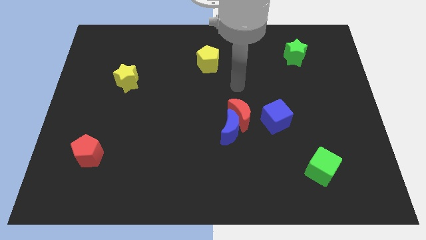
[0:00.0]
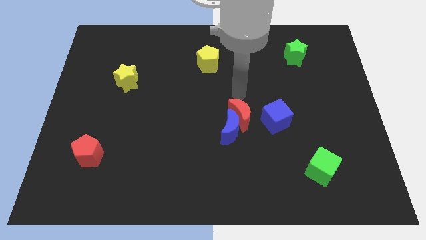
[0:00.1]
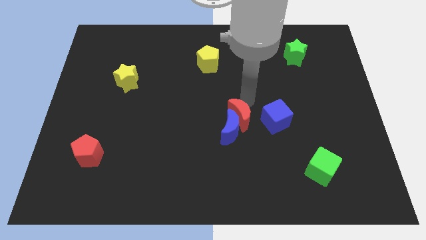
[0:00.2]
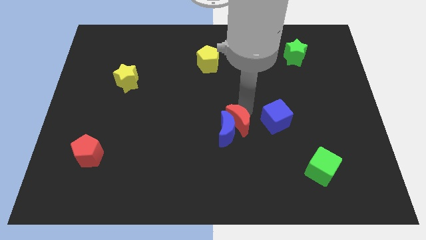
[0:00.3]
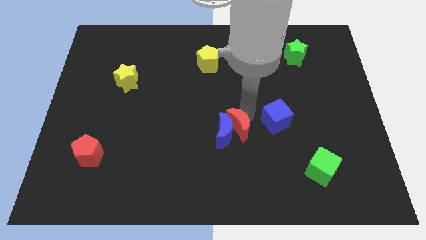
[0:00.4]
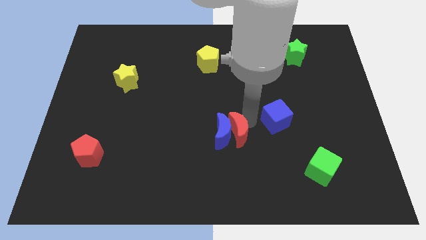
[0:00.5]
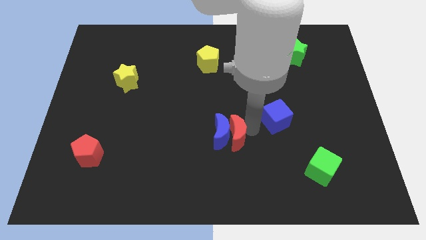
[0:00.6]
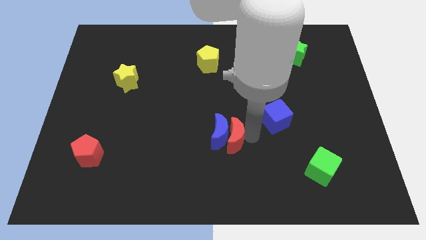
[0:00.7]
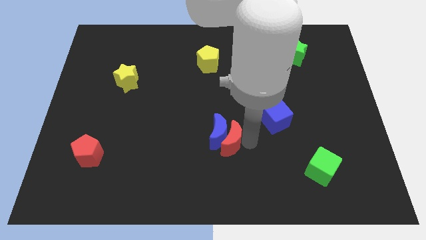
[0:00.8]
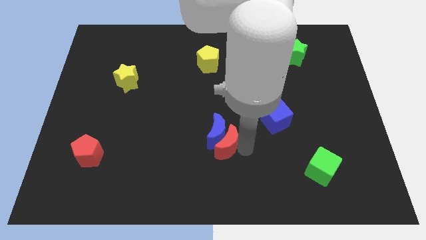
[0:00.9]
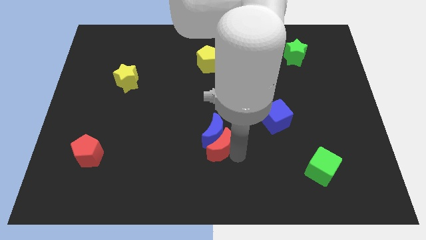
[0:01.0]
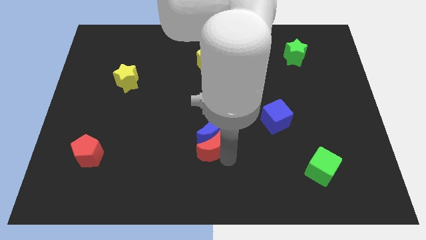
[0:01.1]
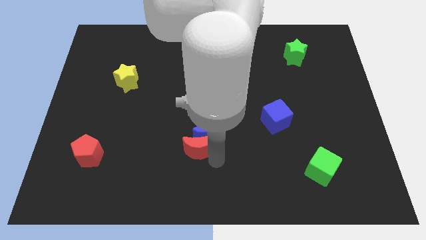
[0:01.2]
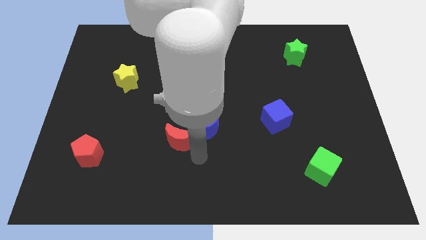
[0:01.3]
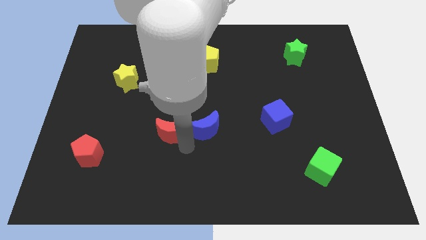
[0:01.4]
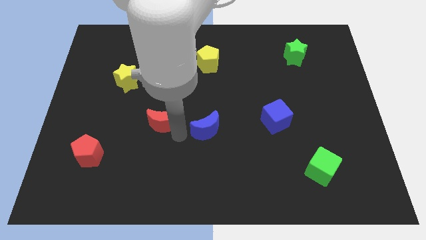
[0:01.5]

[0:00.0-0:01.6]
separate the blue moon from the red moon

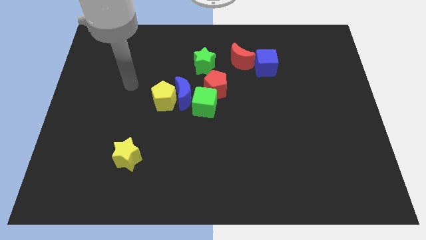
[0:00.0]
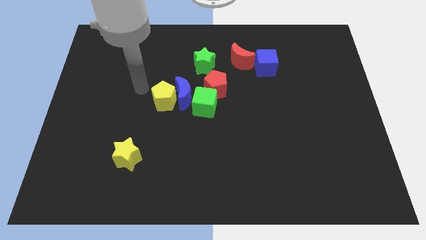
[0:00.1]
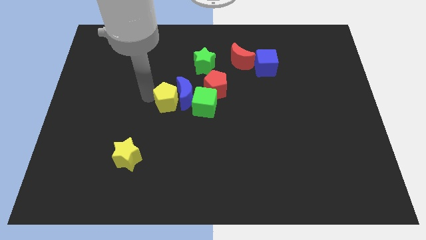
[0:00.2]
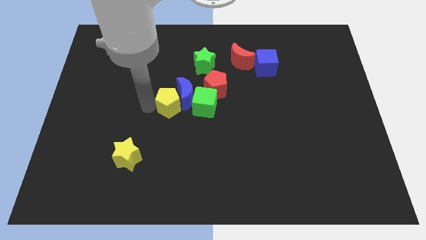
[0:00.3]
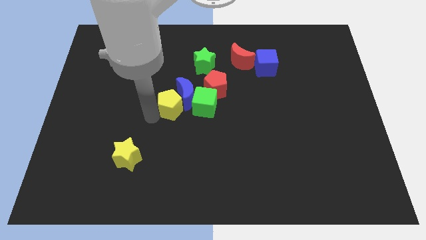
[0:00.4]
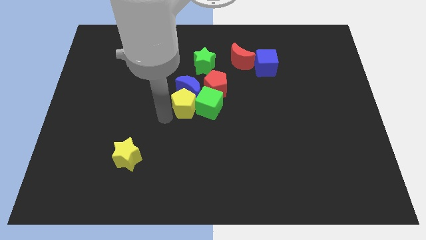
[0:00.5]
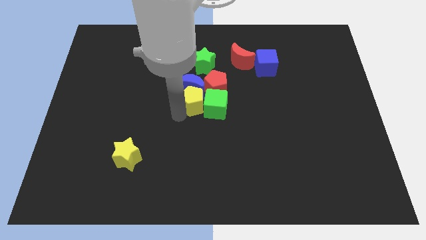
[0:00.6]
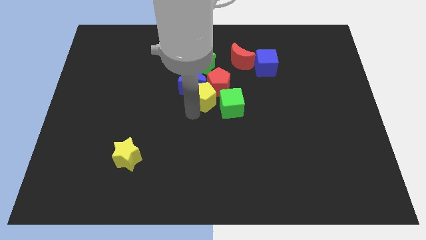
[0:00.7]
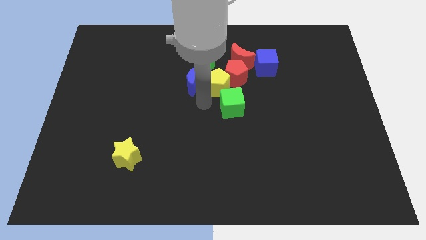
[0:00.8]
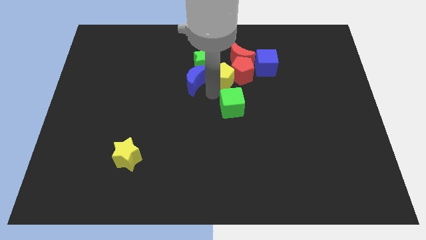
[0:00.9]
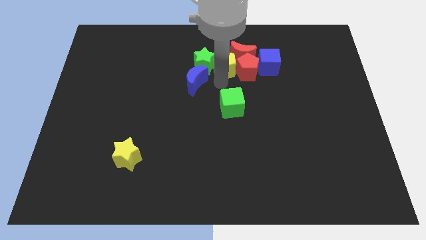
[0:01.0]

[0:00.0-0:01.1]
move the blue moon away from the group

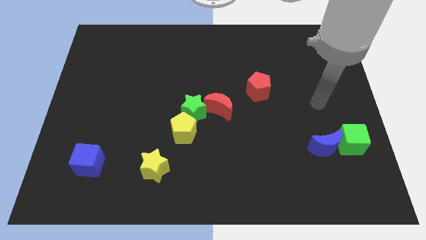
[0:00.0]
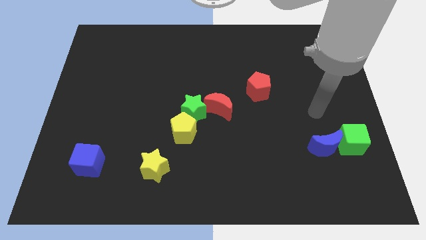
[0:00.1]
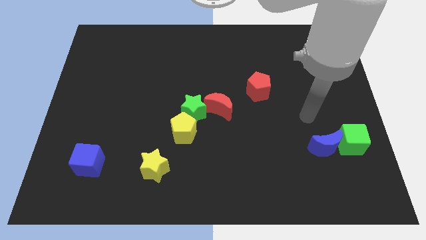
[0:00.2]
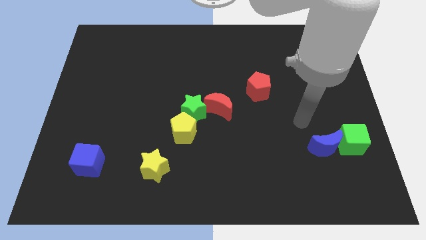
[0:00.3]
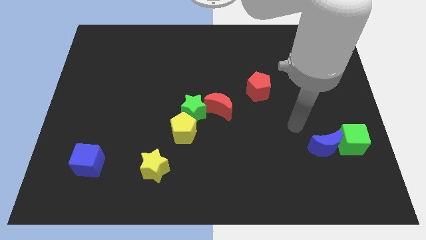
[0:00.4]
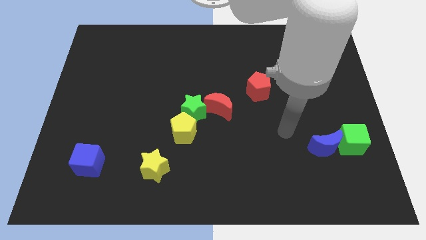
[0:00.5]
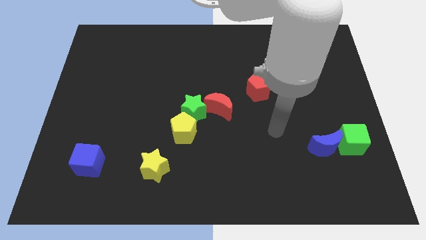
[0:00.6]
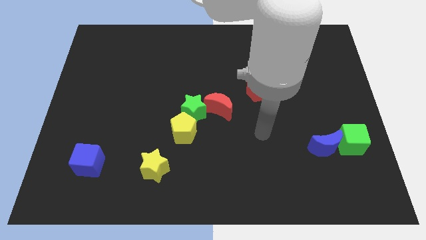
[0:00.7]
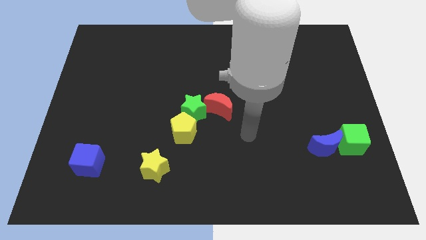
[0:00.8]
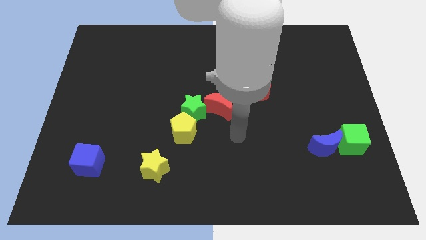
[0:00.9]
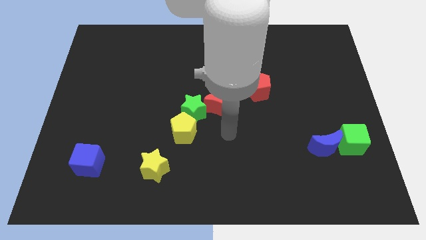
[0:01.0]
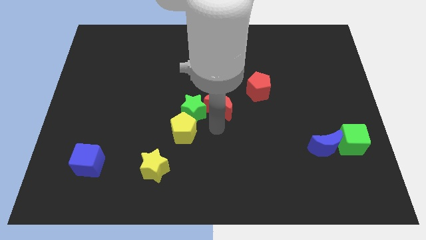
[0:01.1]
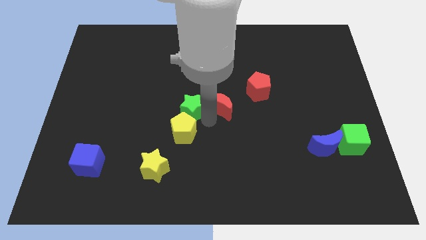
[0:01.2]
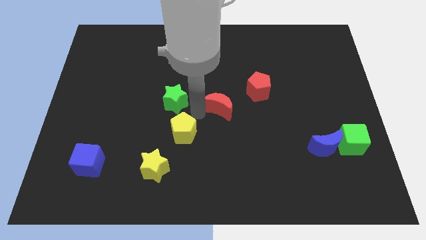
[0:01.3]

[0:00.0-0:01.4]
pull the red moon apart from the green star

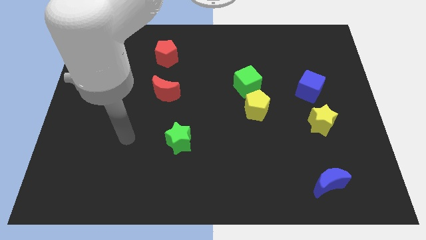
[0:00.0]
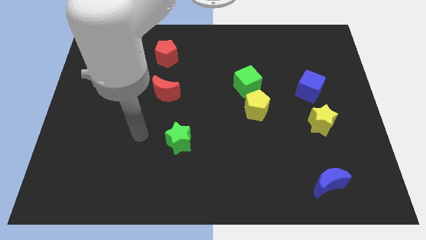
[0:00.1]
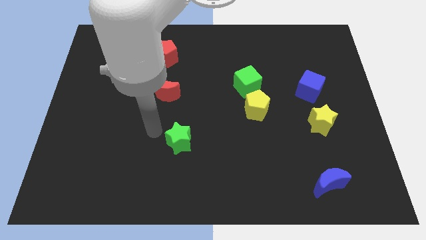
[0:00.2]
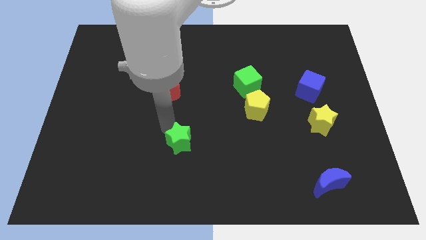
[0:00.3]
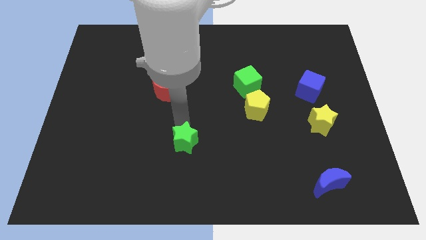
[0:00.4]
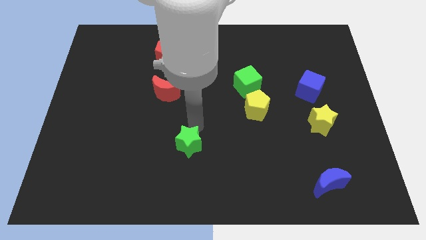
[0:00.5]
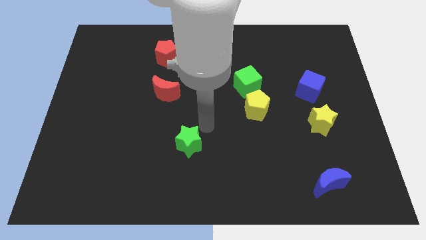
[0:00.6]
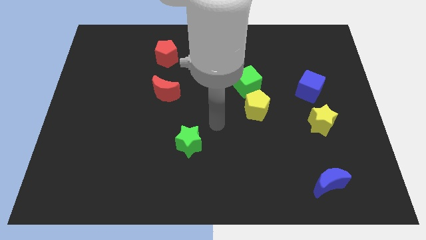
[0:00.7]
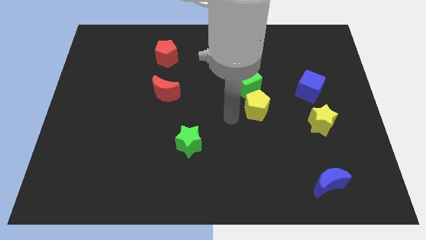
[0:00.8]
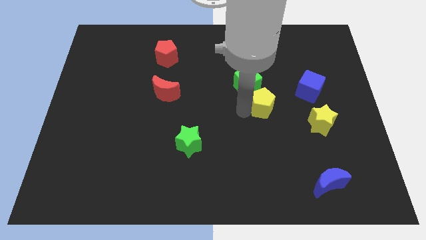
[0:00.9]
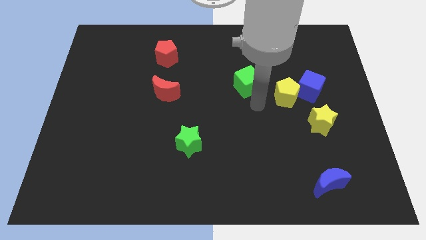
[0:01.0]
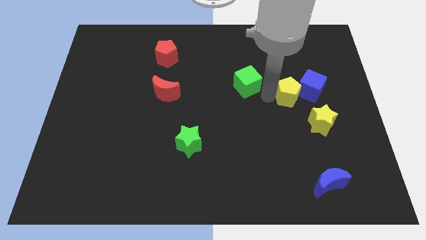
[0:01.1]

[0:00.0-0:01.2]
separate the green cube from the yellow pentagon

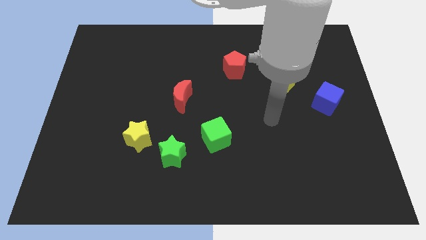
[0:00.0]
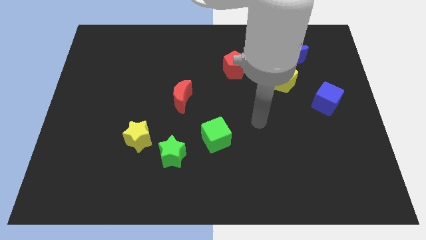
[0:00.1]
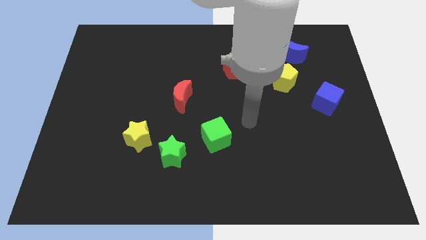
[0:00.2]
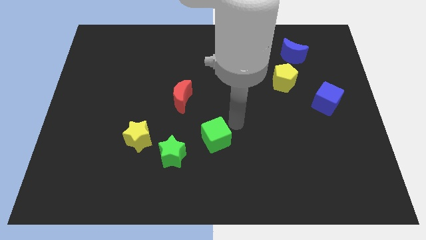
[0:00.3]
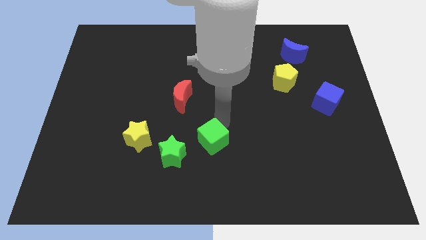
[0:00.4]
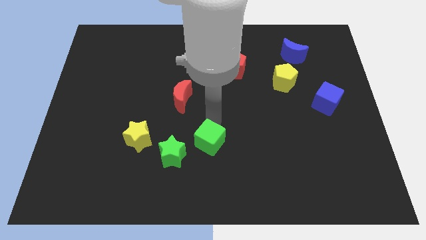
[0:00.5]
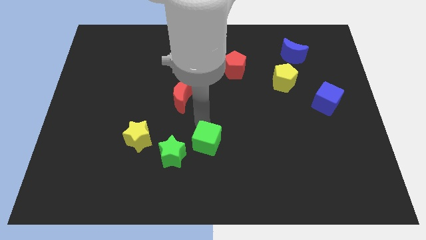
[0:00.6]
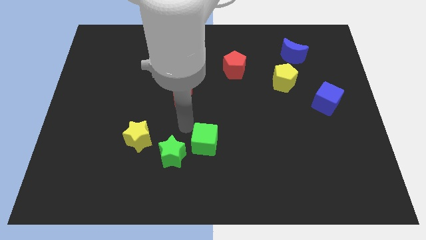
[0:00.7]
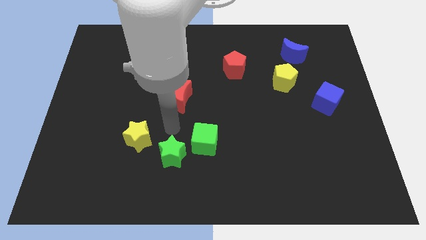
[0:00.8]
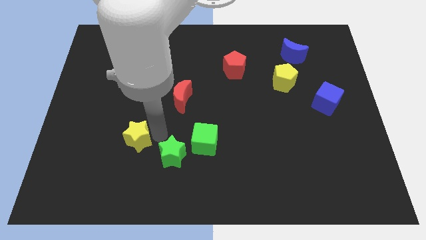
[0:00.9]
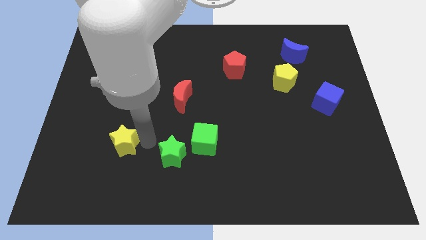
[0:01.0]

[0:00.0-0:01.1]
pull the green star apart from the yellow star

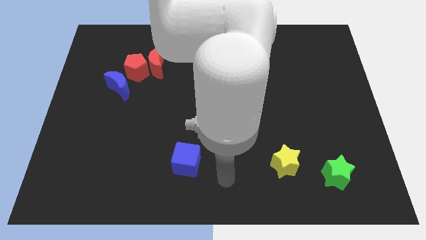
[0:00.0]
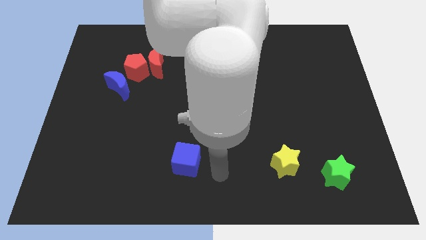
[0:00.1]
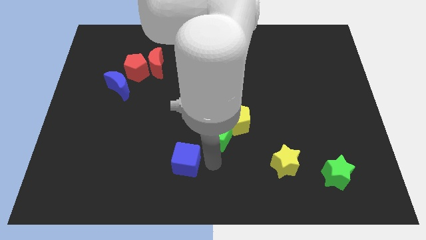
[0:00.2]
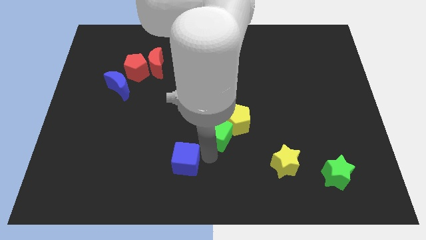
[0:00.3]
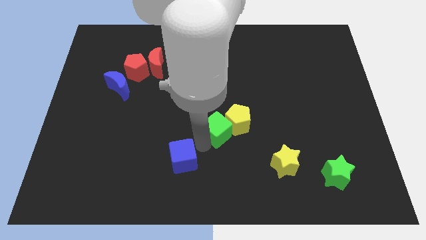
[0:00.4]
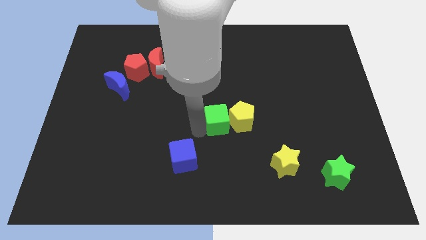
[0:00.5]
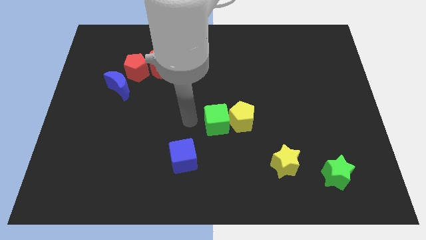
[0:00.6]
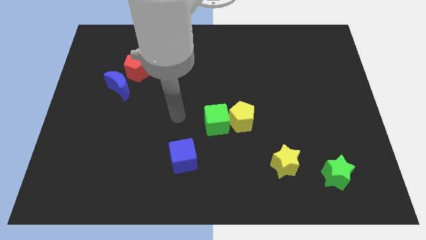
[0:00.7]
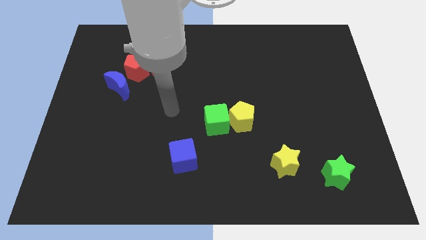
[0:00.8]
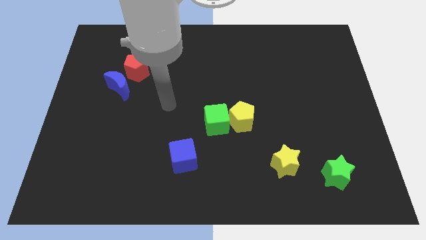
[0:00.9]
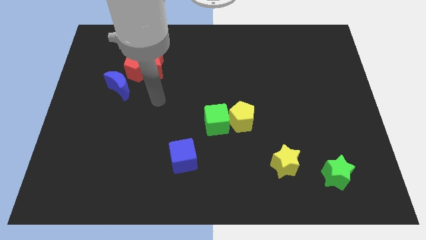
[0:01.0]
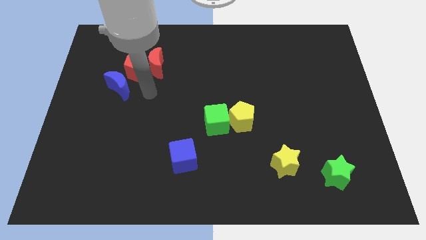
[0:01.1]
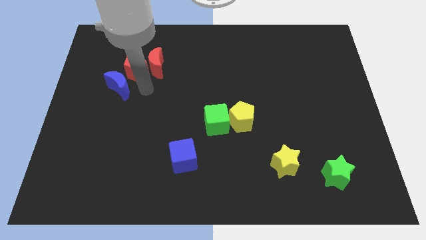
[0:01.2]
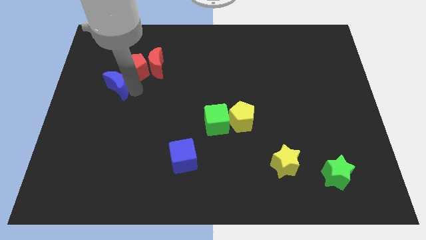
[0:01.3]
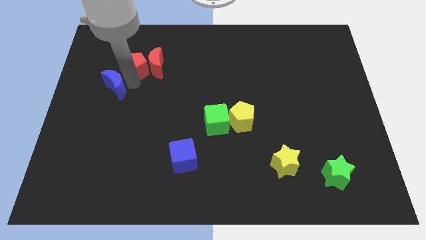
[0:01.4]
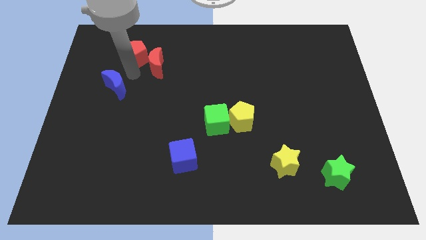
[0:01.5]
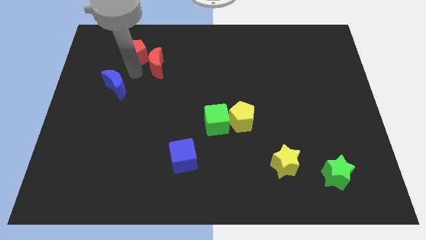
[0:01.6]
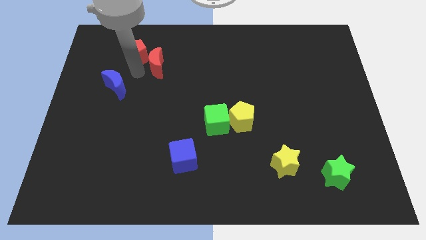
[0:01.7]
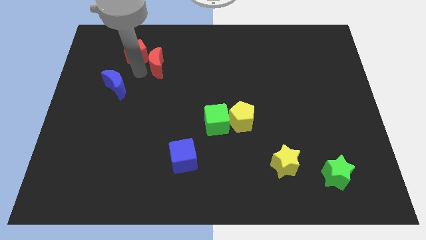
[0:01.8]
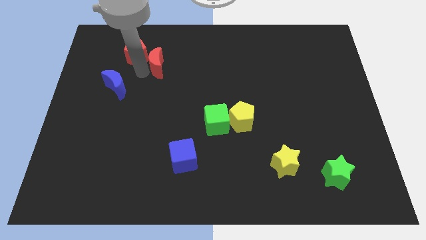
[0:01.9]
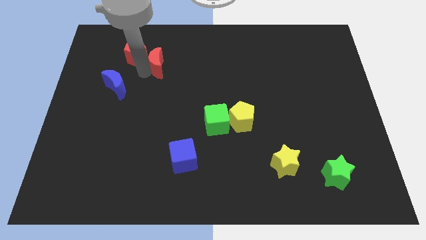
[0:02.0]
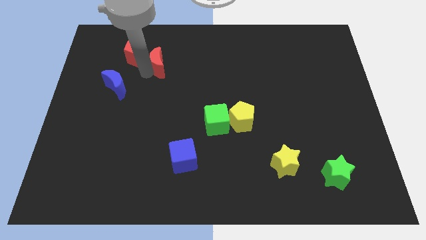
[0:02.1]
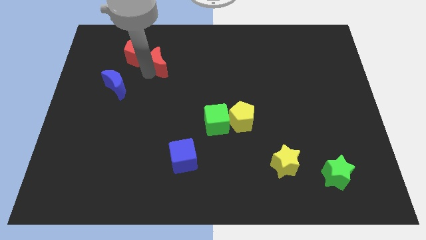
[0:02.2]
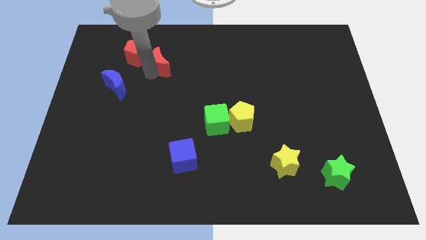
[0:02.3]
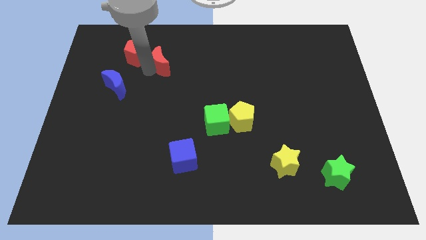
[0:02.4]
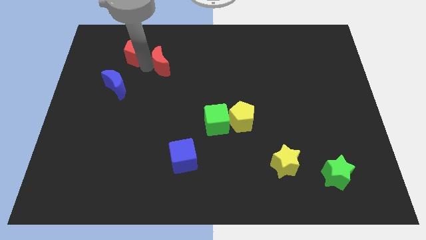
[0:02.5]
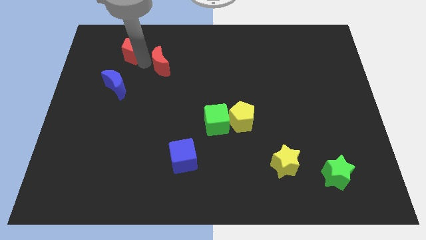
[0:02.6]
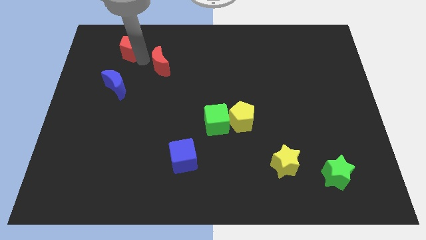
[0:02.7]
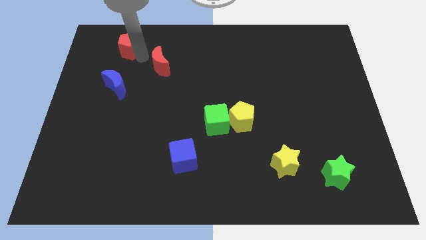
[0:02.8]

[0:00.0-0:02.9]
separate the red moon from the red pentagon
